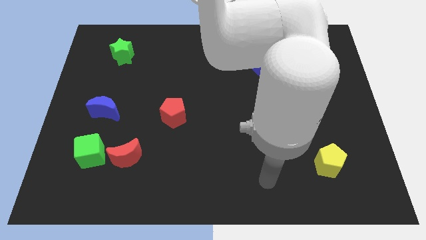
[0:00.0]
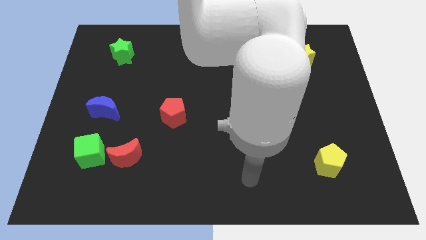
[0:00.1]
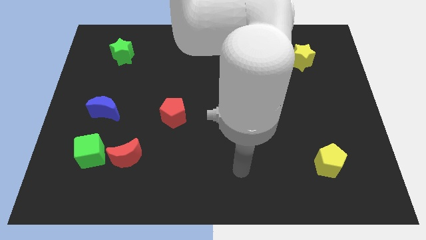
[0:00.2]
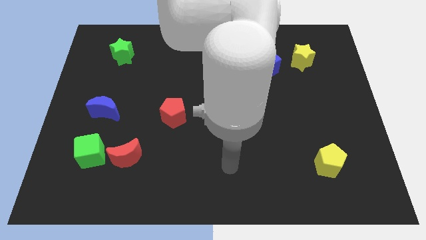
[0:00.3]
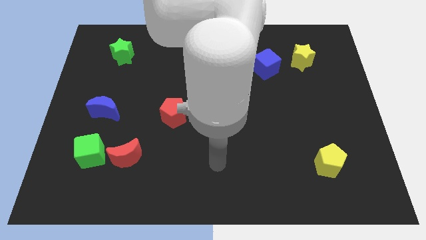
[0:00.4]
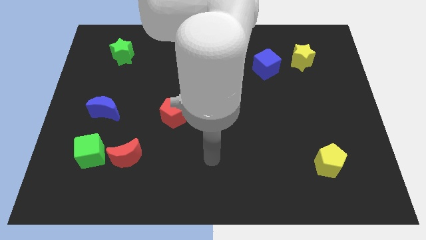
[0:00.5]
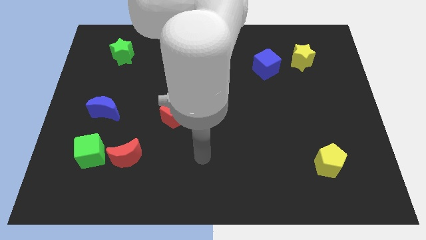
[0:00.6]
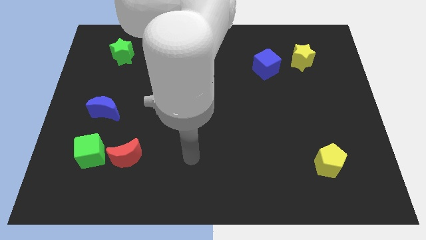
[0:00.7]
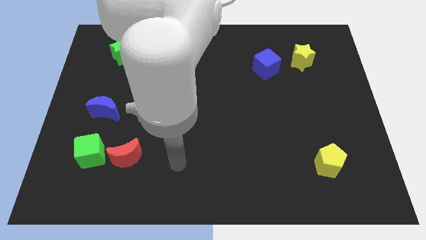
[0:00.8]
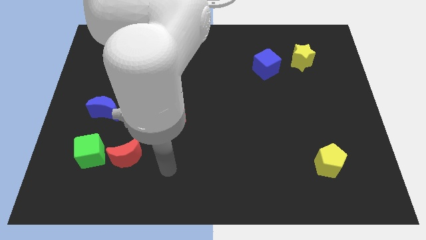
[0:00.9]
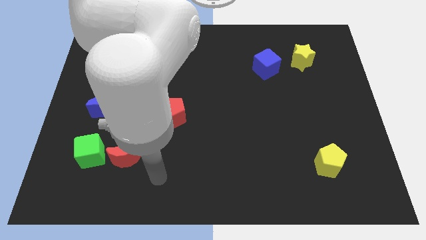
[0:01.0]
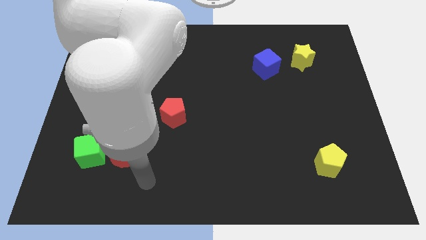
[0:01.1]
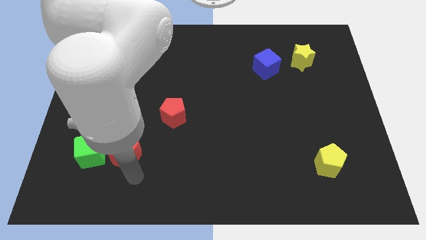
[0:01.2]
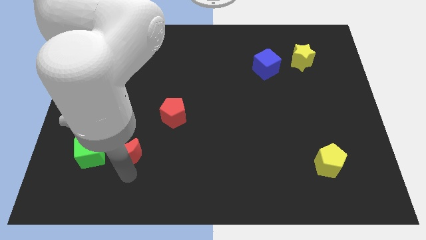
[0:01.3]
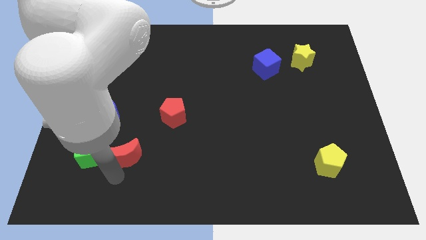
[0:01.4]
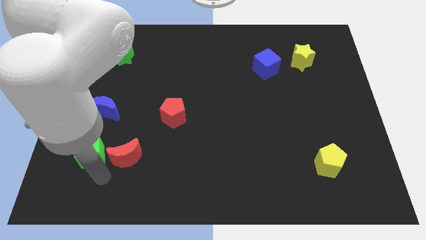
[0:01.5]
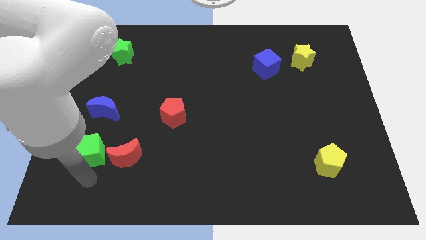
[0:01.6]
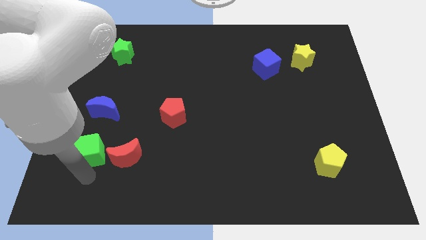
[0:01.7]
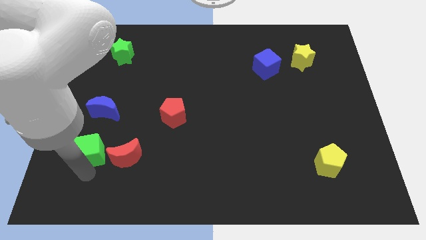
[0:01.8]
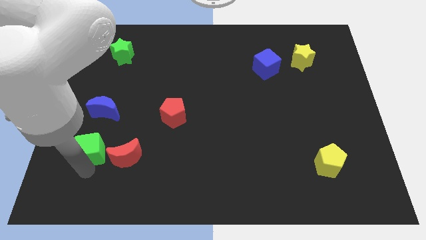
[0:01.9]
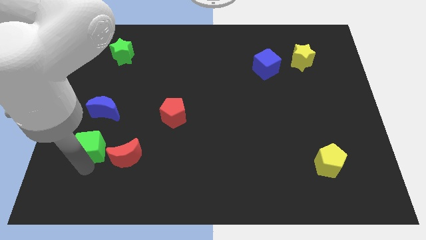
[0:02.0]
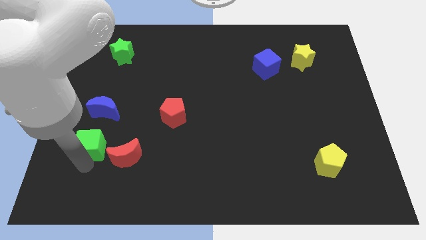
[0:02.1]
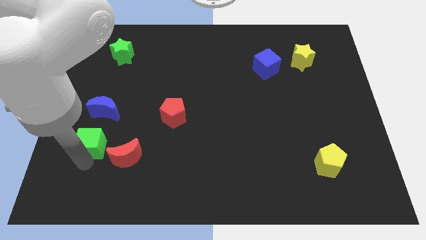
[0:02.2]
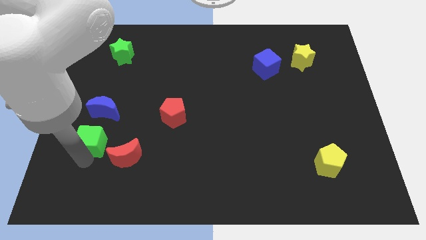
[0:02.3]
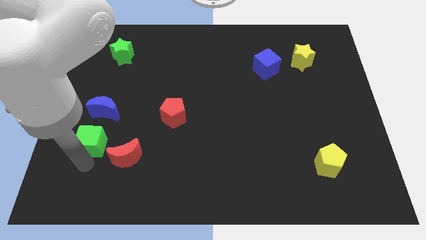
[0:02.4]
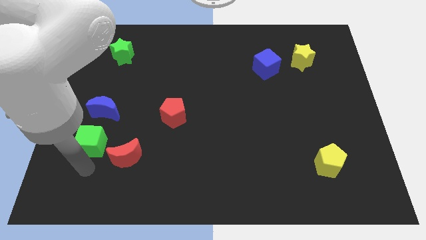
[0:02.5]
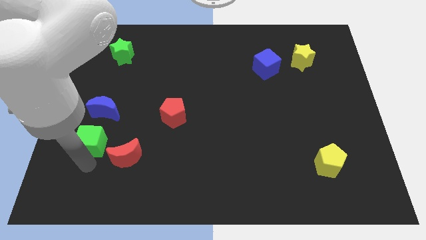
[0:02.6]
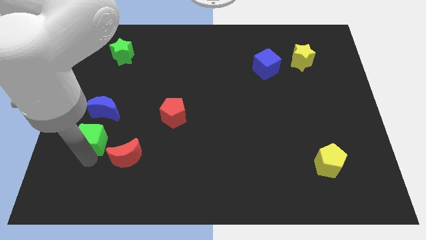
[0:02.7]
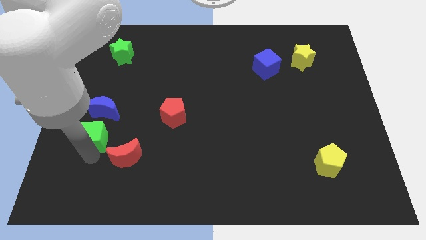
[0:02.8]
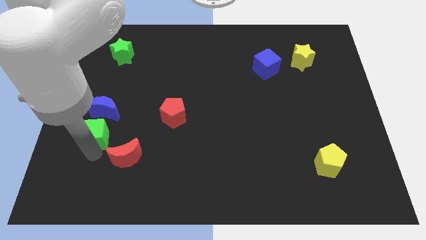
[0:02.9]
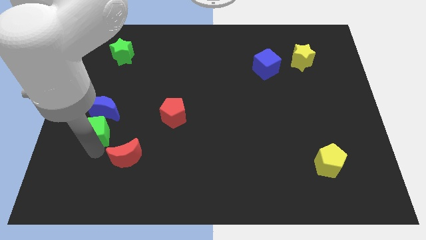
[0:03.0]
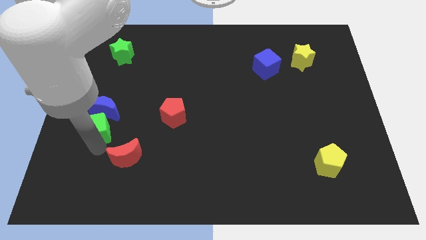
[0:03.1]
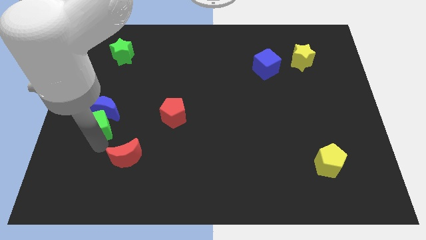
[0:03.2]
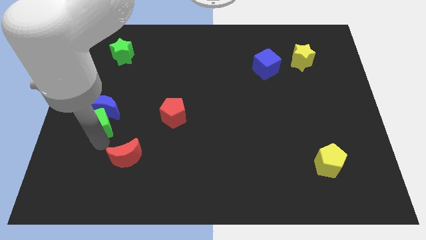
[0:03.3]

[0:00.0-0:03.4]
move the green cube a bit upwards

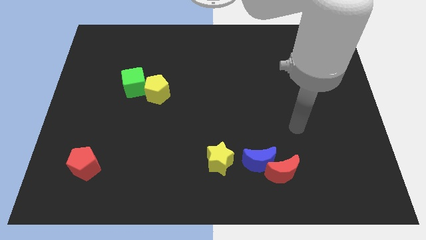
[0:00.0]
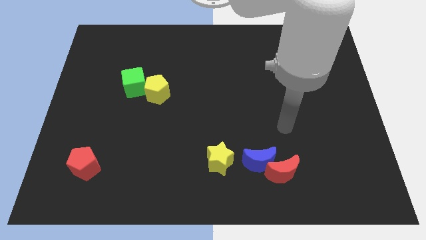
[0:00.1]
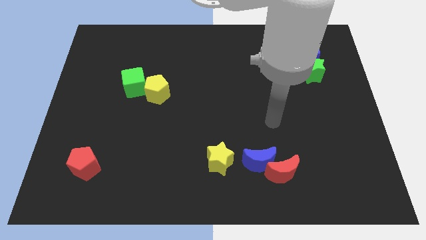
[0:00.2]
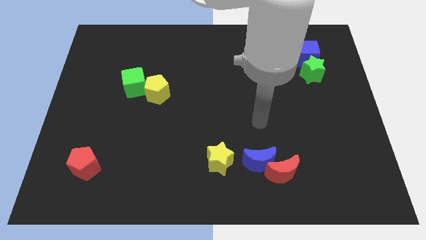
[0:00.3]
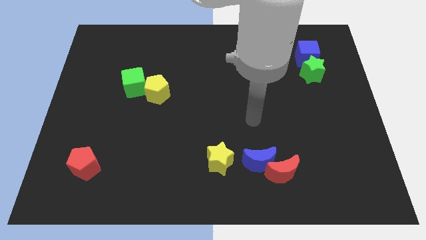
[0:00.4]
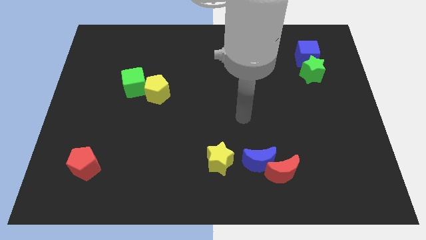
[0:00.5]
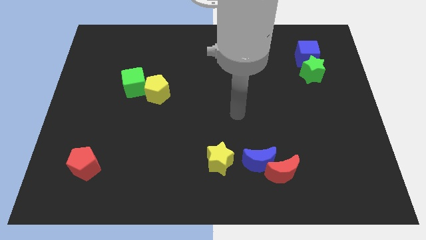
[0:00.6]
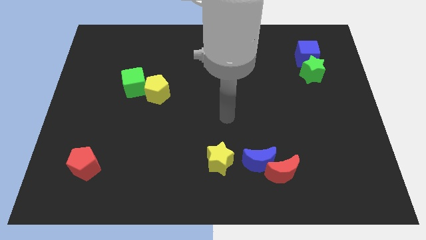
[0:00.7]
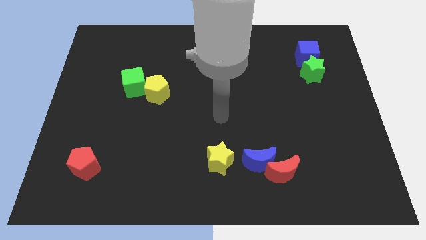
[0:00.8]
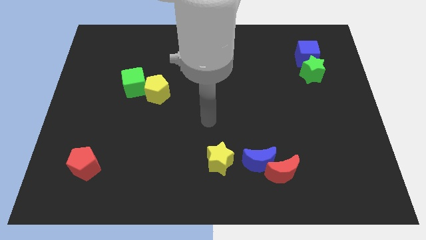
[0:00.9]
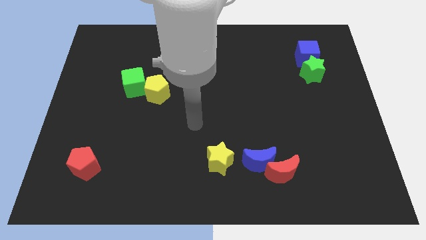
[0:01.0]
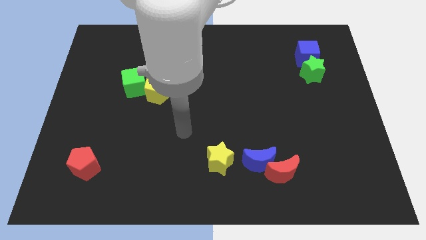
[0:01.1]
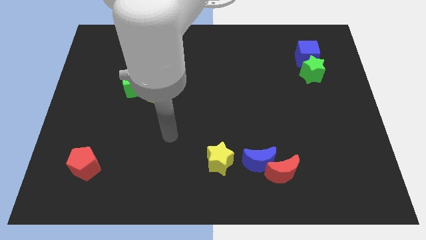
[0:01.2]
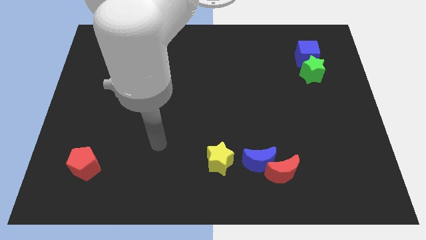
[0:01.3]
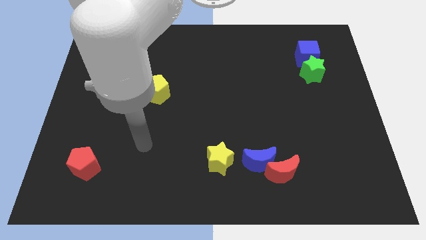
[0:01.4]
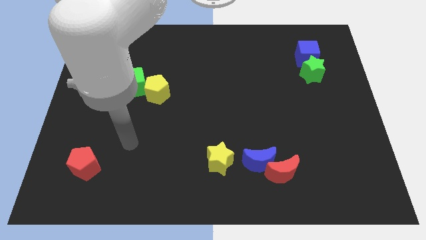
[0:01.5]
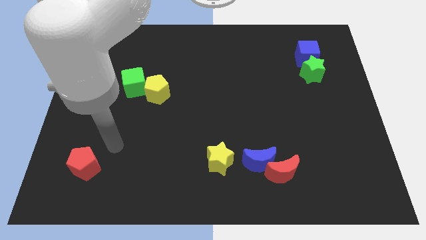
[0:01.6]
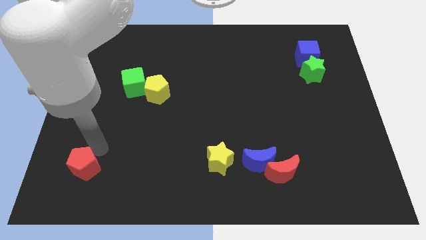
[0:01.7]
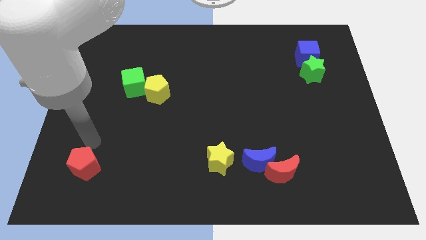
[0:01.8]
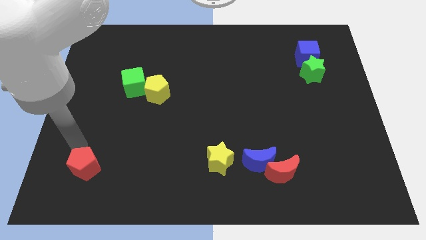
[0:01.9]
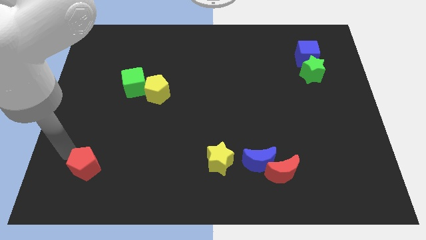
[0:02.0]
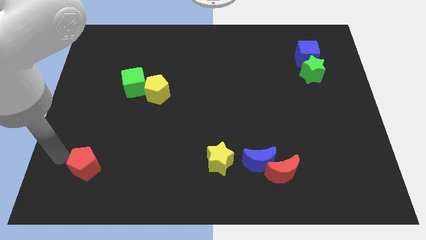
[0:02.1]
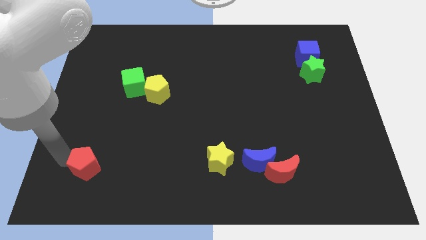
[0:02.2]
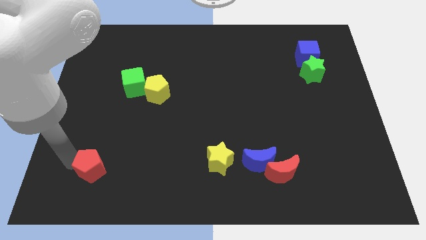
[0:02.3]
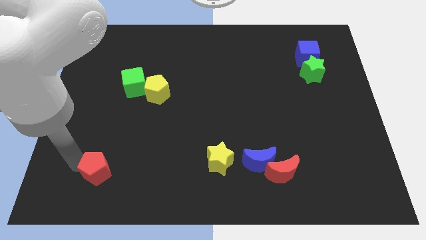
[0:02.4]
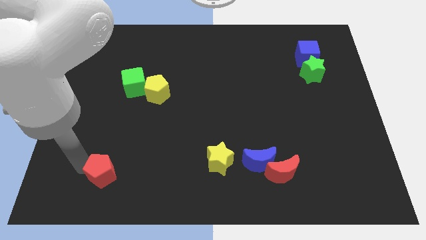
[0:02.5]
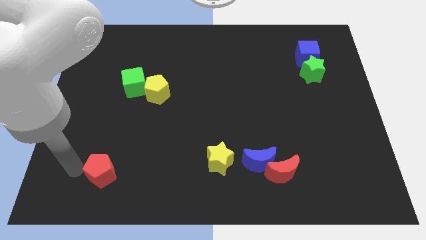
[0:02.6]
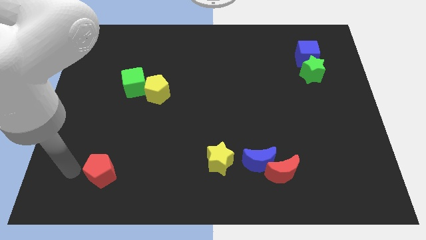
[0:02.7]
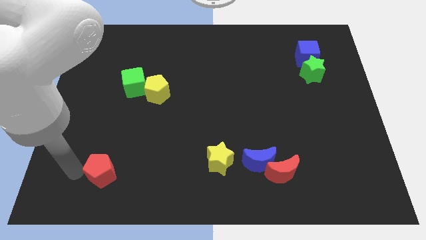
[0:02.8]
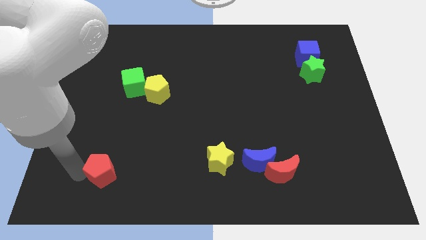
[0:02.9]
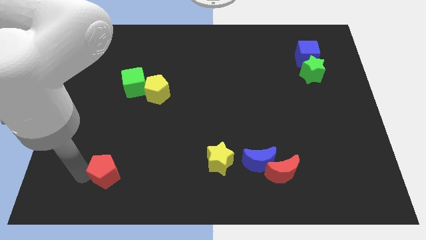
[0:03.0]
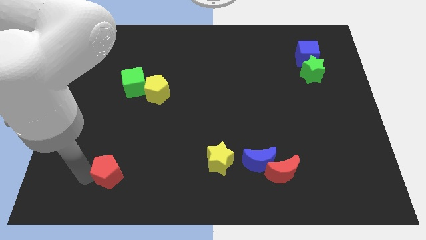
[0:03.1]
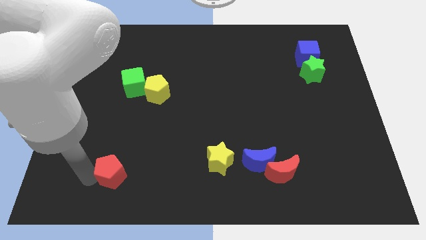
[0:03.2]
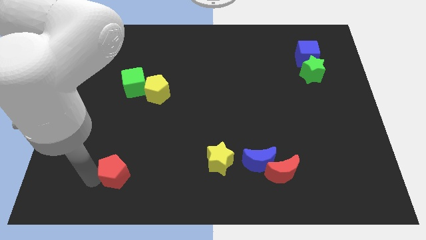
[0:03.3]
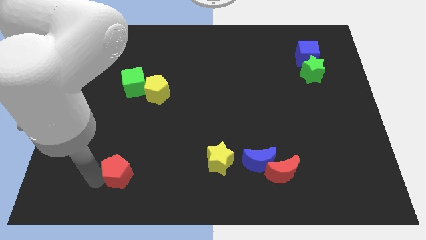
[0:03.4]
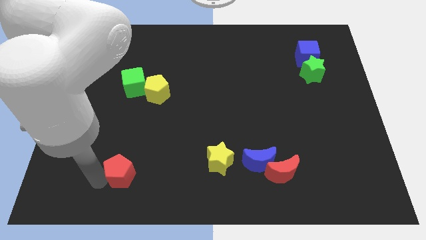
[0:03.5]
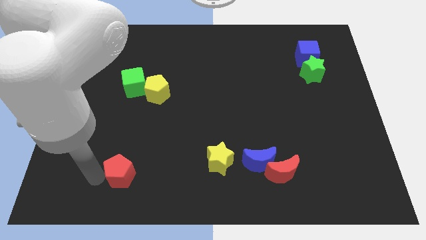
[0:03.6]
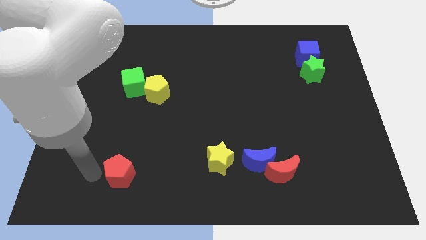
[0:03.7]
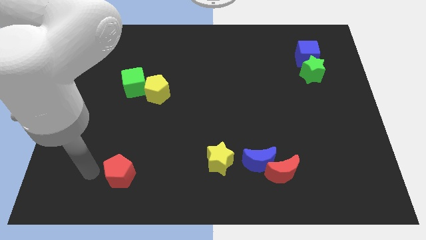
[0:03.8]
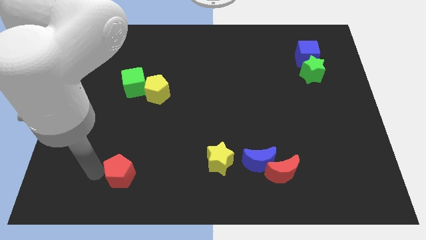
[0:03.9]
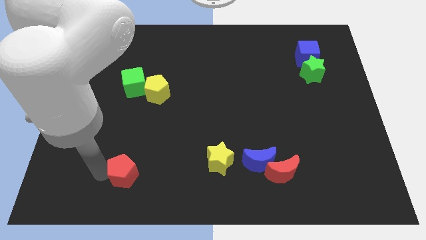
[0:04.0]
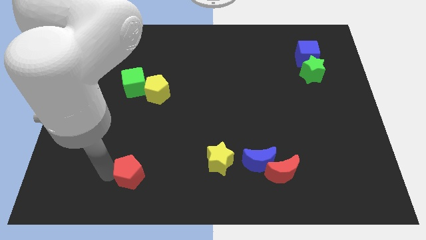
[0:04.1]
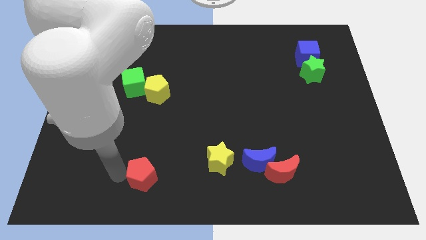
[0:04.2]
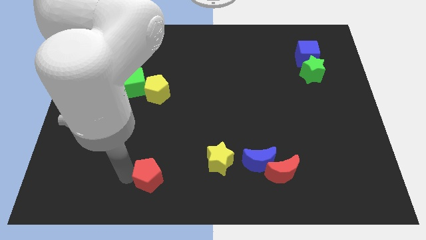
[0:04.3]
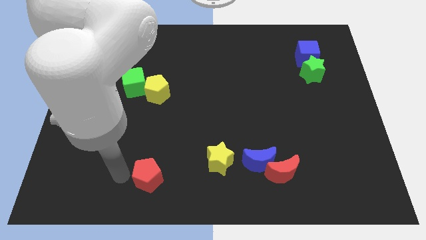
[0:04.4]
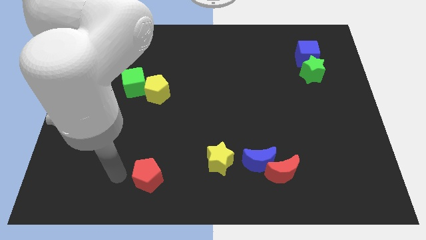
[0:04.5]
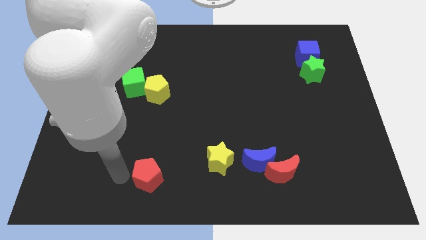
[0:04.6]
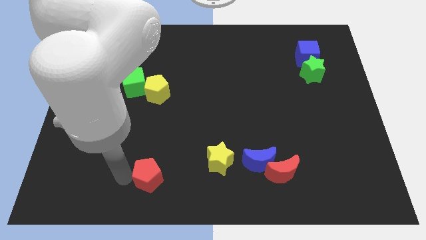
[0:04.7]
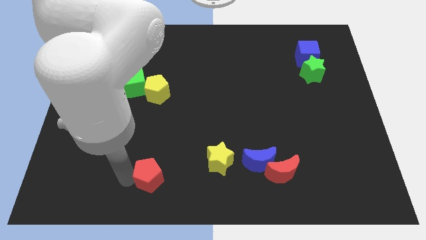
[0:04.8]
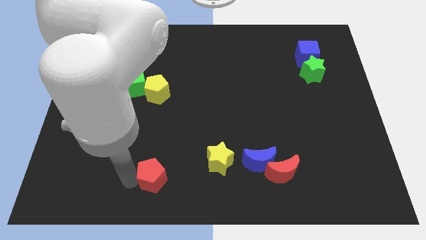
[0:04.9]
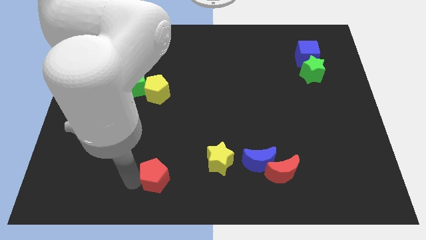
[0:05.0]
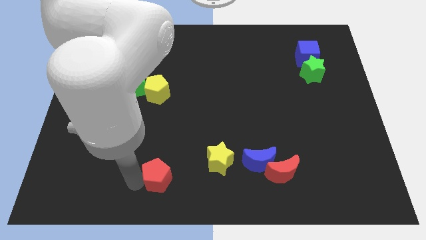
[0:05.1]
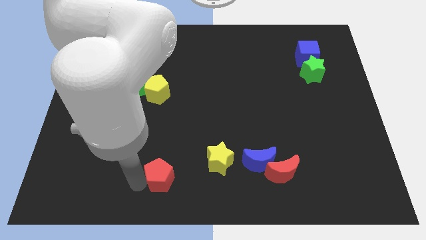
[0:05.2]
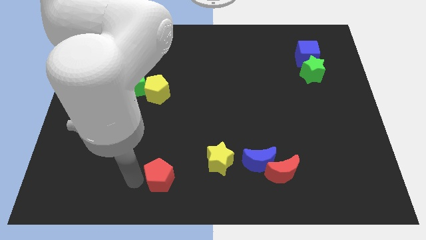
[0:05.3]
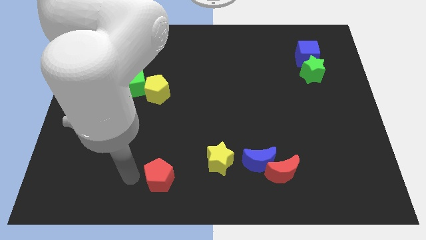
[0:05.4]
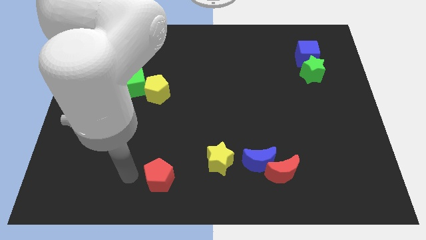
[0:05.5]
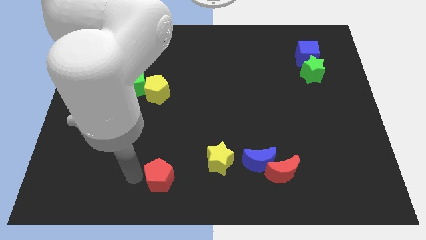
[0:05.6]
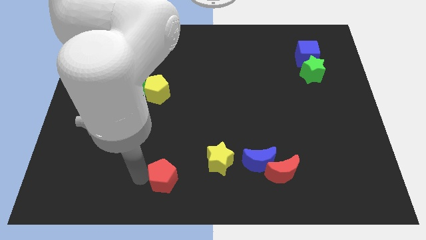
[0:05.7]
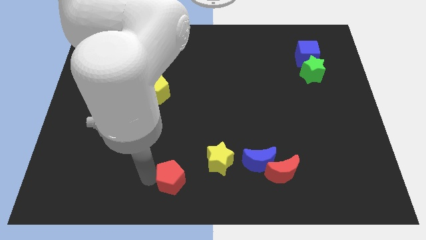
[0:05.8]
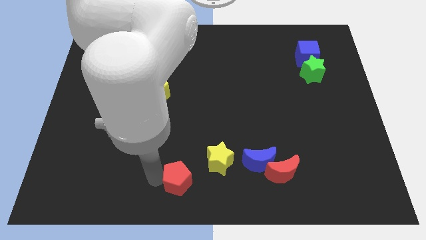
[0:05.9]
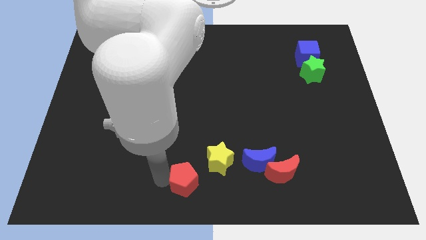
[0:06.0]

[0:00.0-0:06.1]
push the red pentagon right
